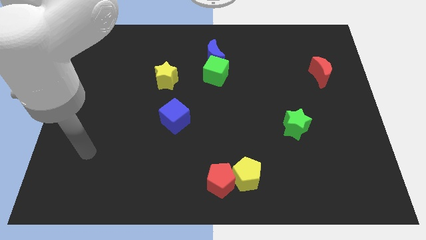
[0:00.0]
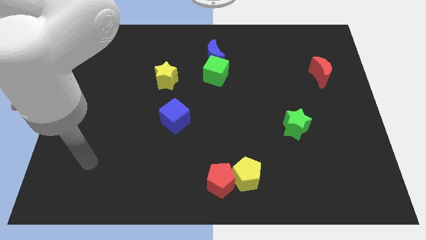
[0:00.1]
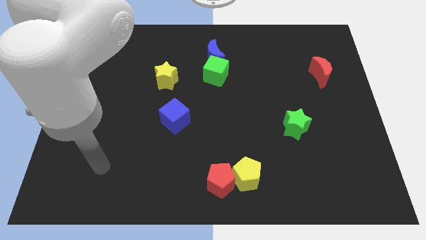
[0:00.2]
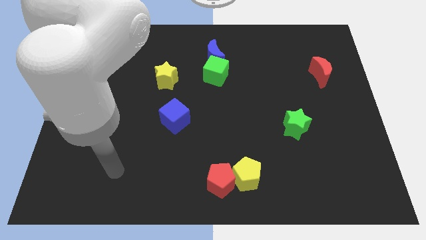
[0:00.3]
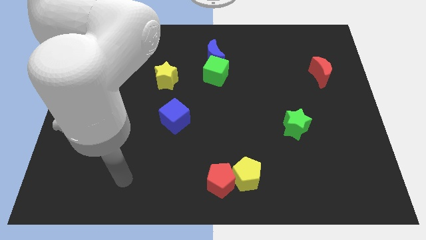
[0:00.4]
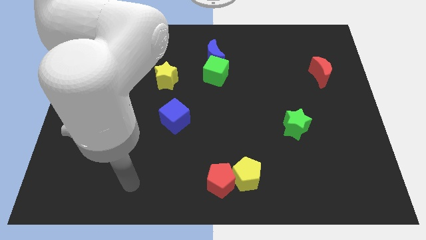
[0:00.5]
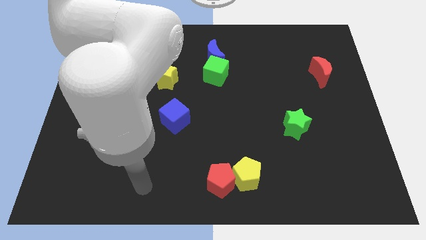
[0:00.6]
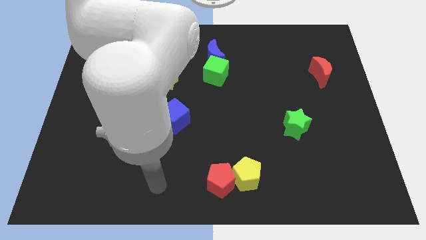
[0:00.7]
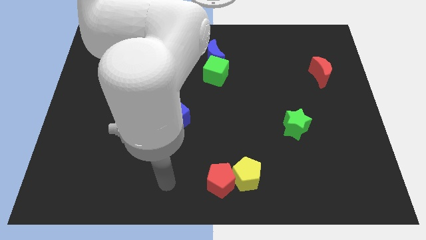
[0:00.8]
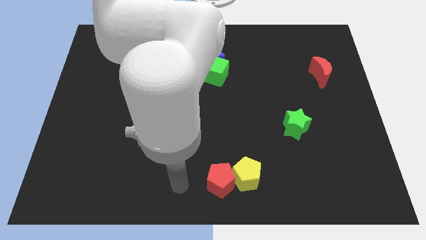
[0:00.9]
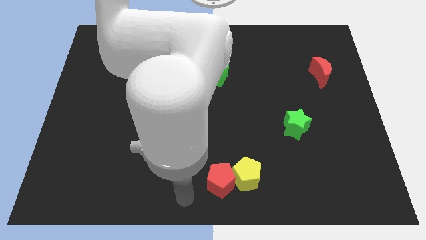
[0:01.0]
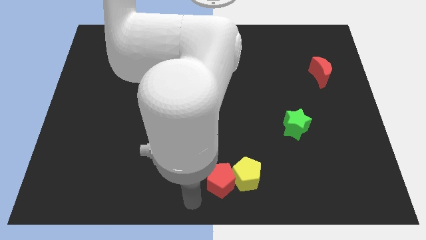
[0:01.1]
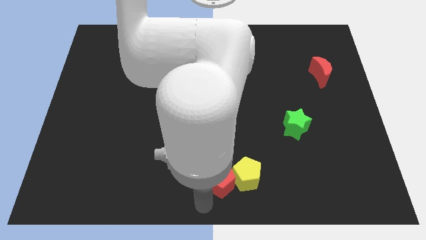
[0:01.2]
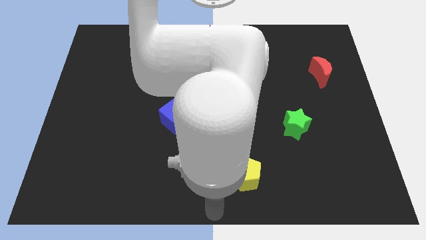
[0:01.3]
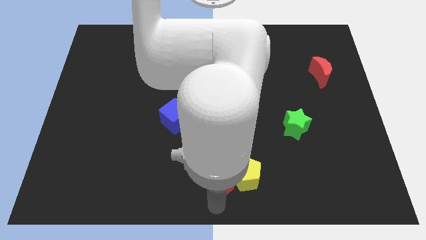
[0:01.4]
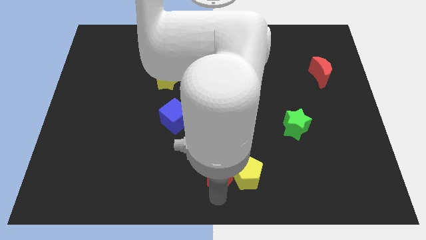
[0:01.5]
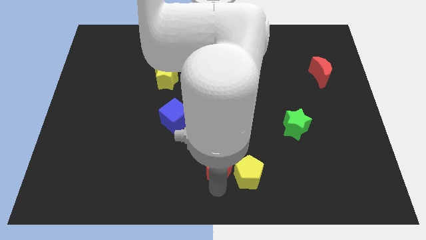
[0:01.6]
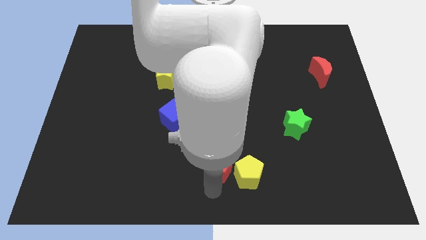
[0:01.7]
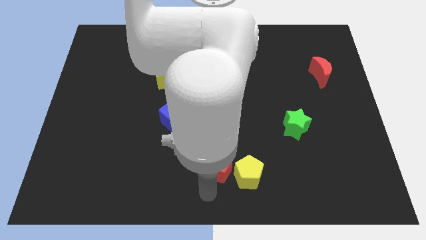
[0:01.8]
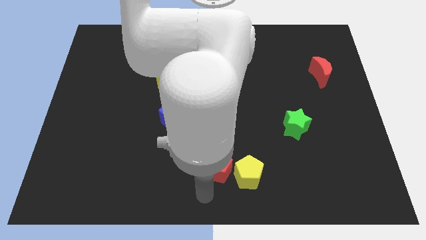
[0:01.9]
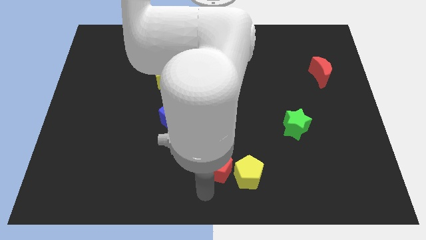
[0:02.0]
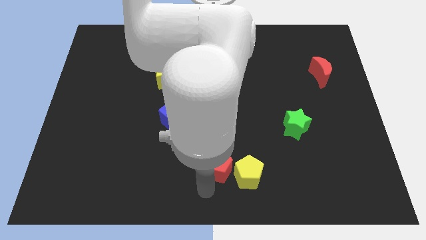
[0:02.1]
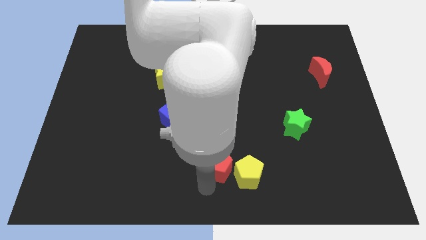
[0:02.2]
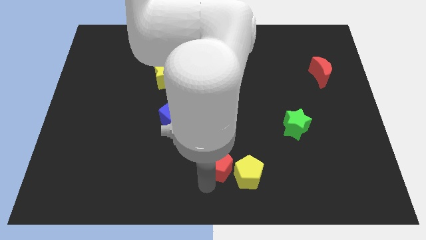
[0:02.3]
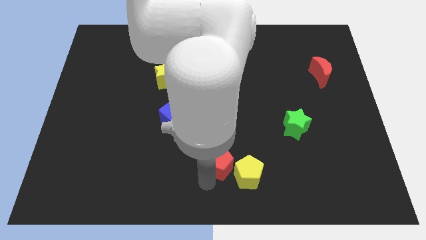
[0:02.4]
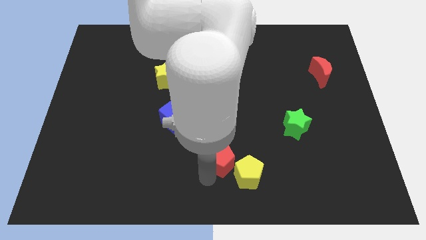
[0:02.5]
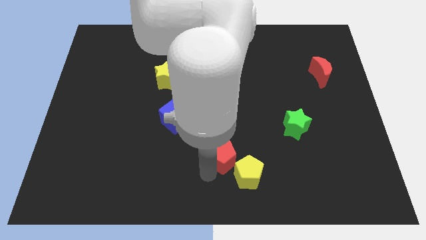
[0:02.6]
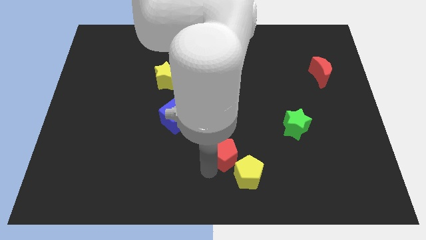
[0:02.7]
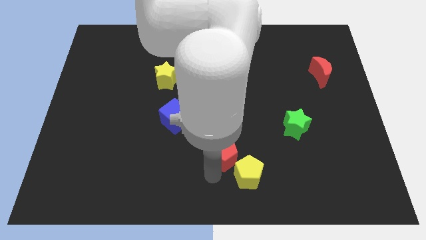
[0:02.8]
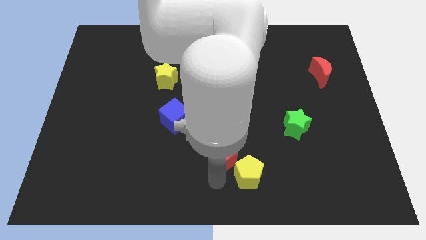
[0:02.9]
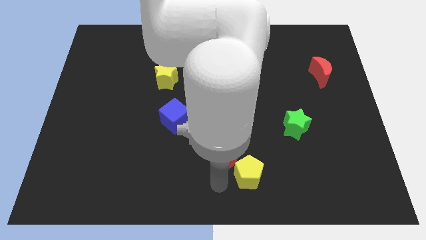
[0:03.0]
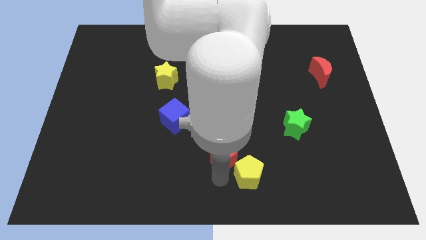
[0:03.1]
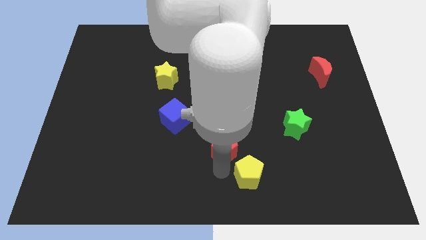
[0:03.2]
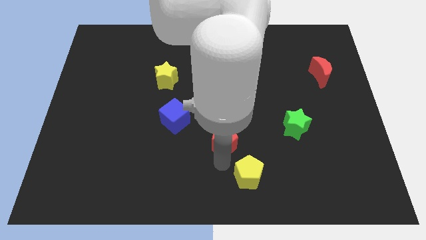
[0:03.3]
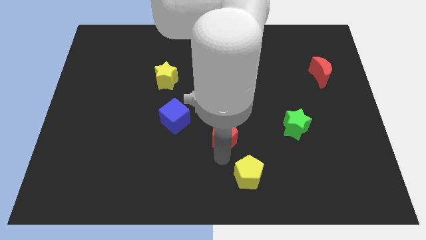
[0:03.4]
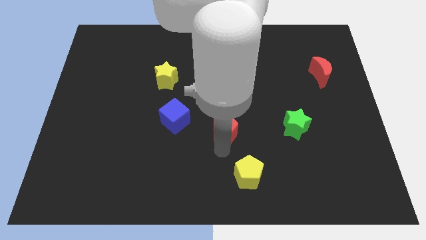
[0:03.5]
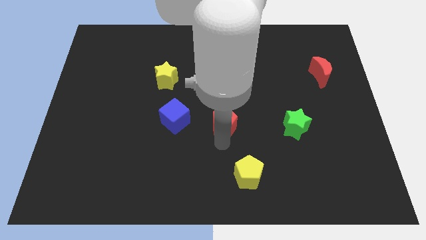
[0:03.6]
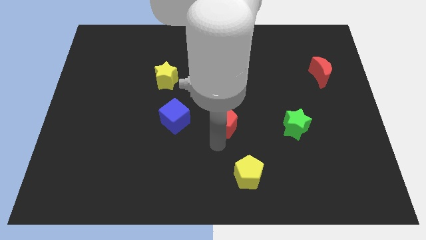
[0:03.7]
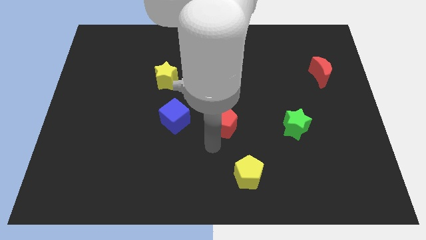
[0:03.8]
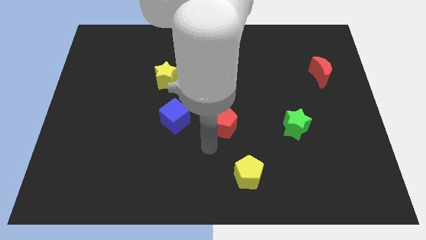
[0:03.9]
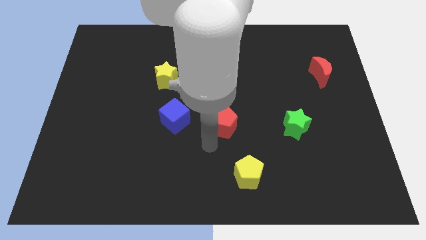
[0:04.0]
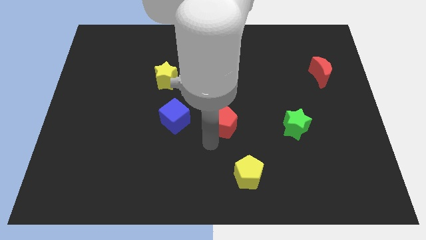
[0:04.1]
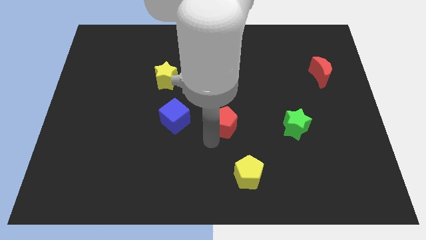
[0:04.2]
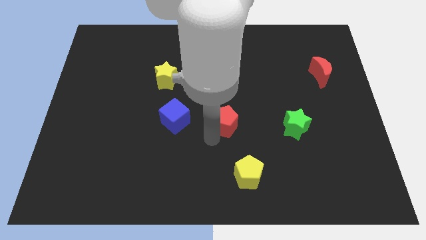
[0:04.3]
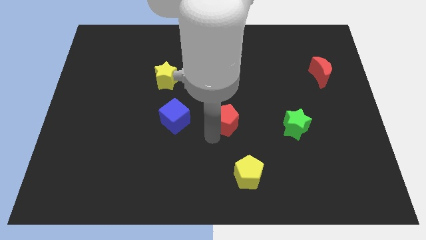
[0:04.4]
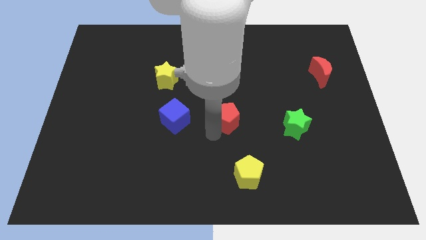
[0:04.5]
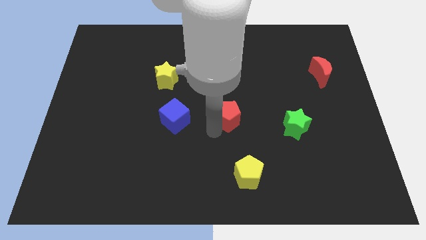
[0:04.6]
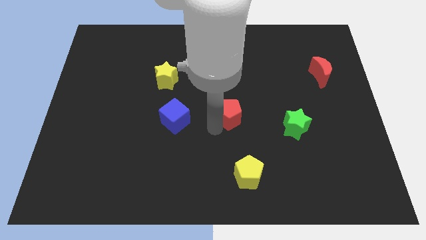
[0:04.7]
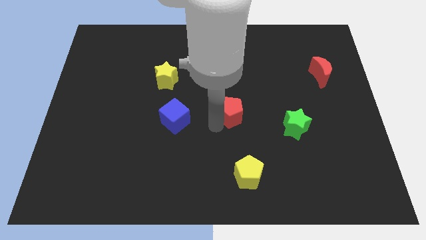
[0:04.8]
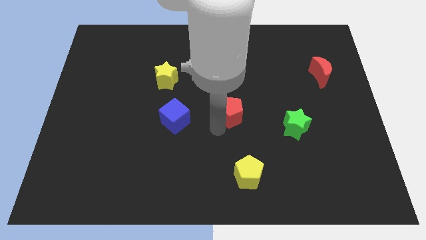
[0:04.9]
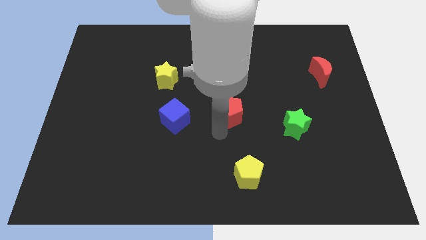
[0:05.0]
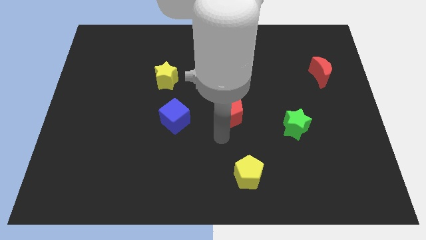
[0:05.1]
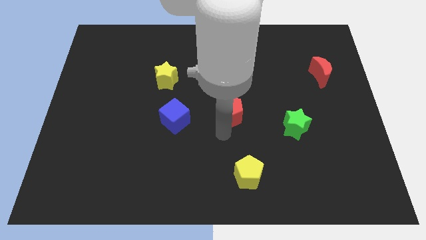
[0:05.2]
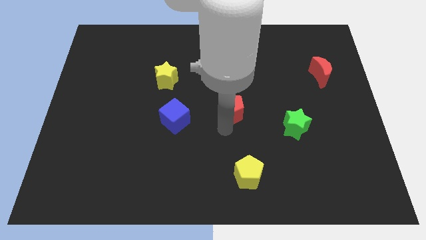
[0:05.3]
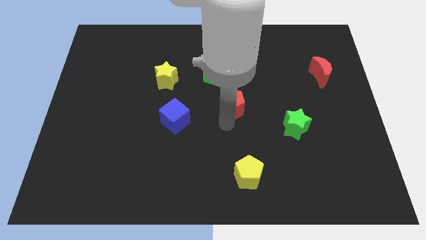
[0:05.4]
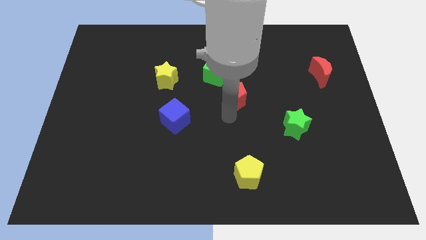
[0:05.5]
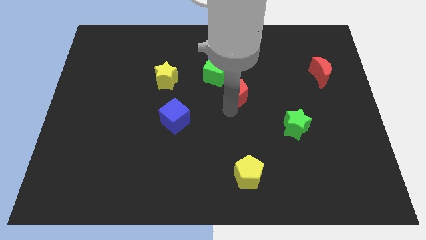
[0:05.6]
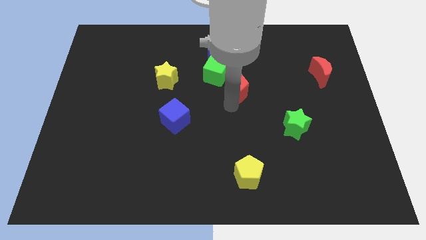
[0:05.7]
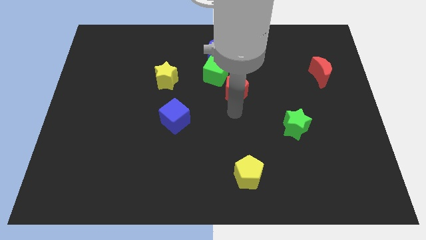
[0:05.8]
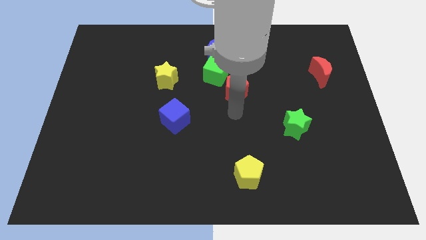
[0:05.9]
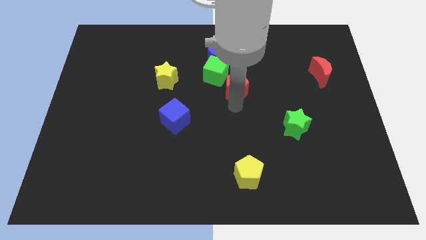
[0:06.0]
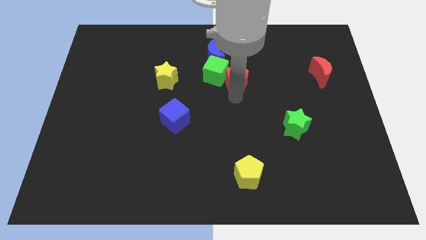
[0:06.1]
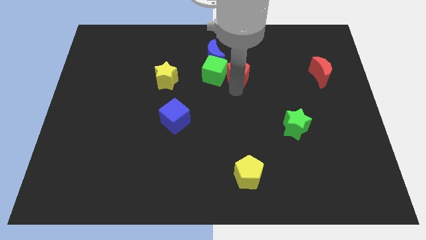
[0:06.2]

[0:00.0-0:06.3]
put the red pentagon to the top right side of the green cube

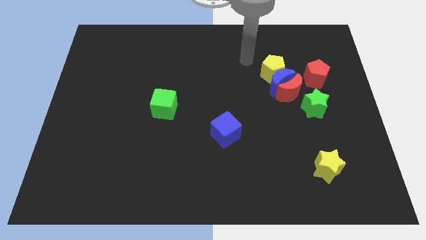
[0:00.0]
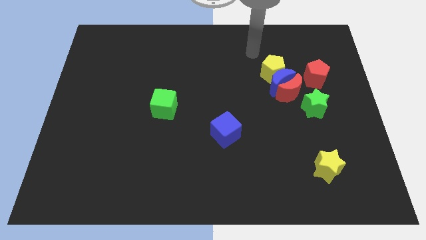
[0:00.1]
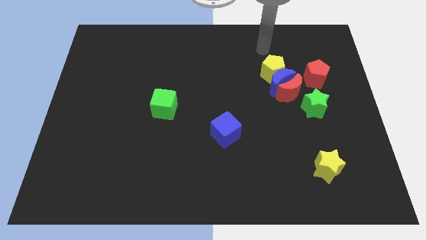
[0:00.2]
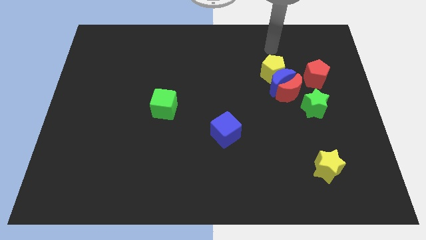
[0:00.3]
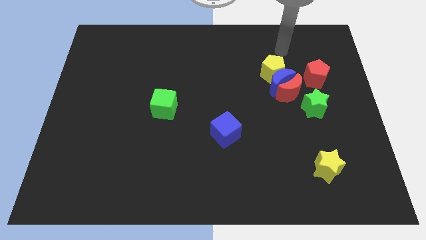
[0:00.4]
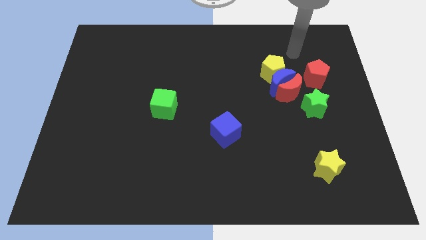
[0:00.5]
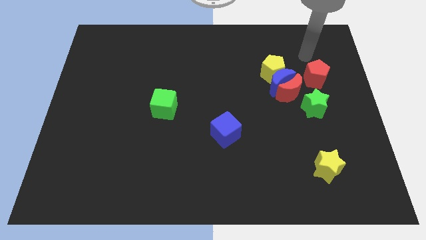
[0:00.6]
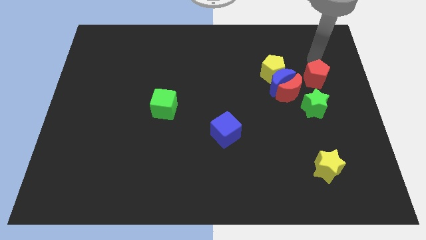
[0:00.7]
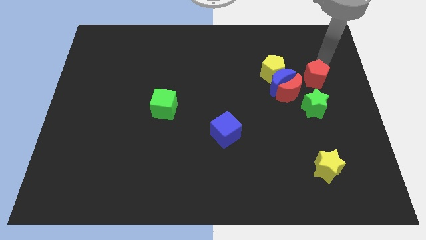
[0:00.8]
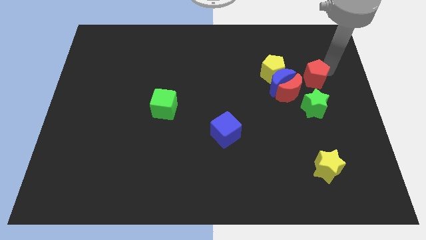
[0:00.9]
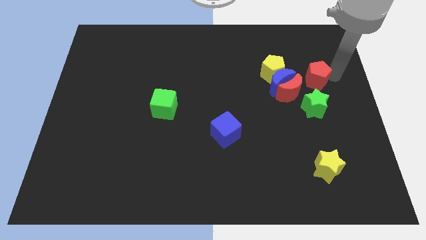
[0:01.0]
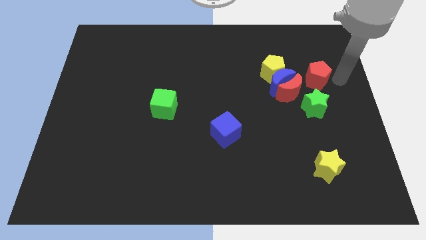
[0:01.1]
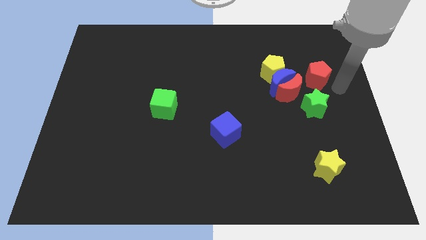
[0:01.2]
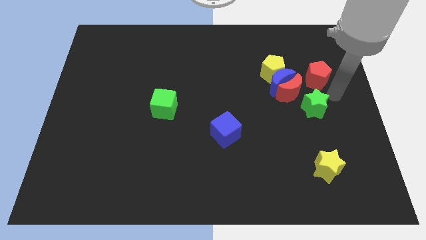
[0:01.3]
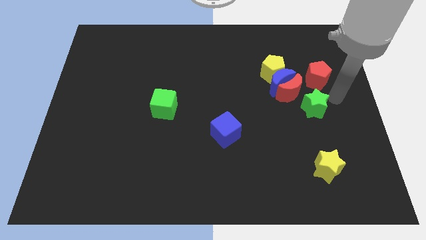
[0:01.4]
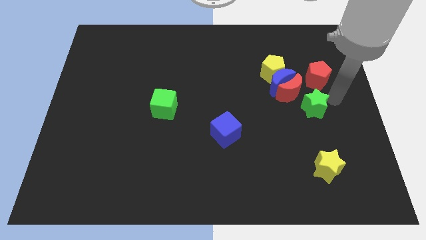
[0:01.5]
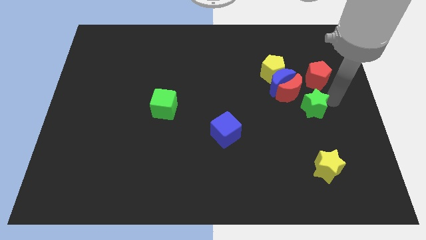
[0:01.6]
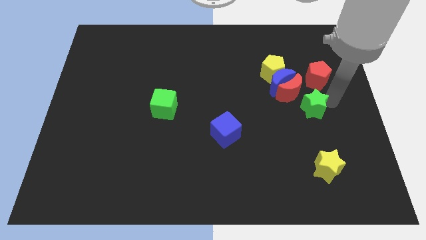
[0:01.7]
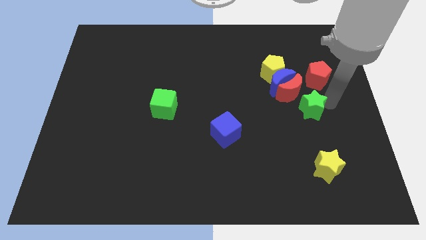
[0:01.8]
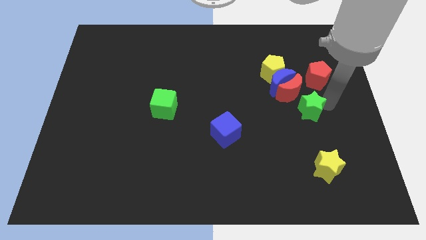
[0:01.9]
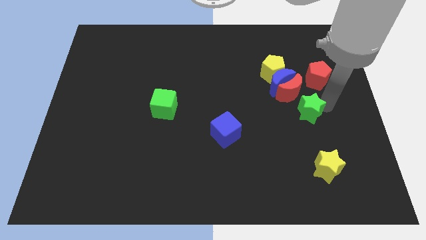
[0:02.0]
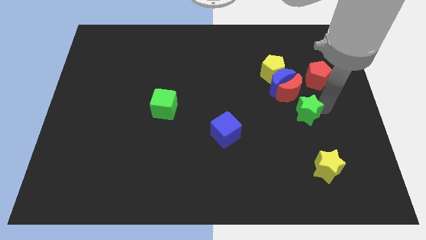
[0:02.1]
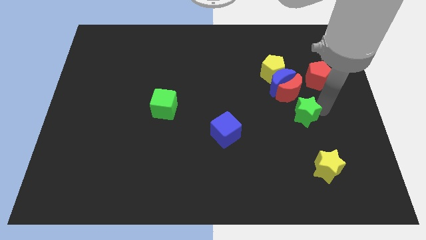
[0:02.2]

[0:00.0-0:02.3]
put the green star below the blue moon
